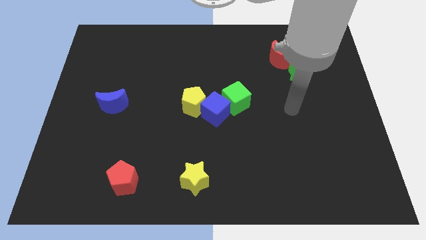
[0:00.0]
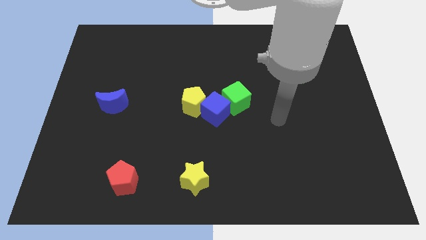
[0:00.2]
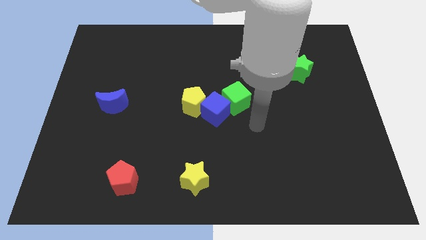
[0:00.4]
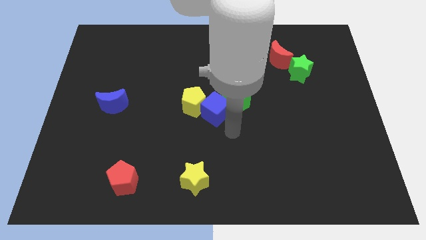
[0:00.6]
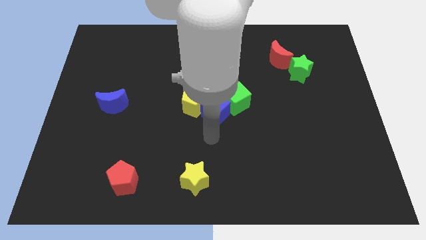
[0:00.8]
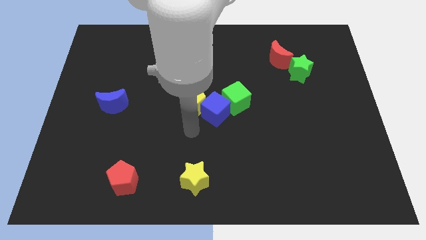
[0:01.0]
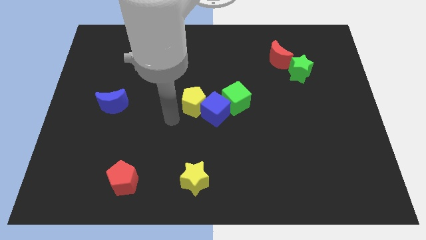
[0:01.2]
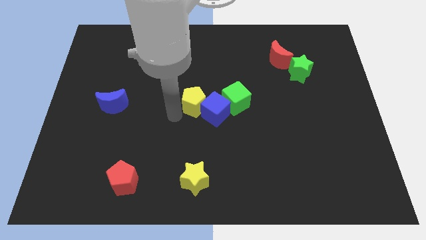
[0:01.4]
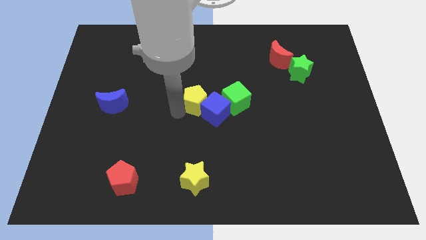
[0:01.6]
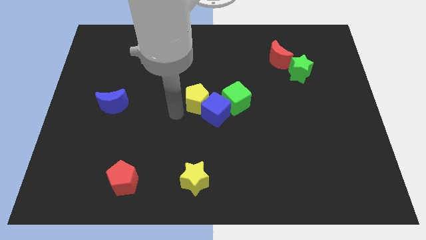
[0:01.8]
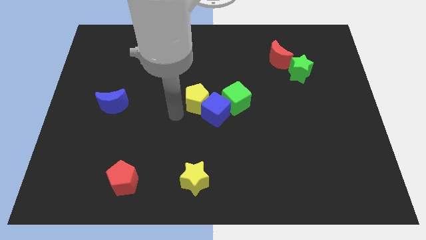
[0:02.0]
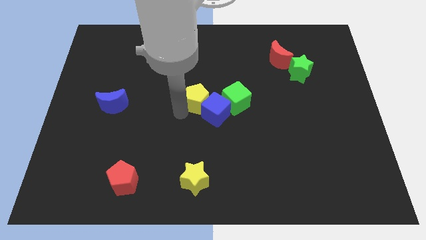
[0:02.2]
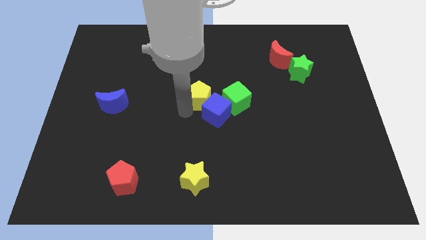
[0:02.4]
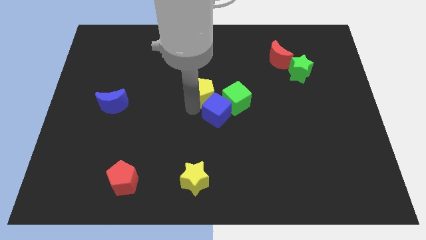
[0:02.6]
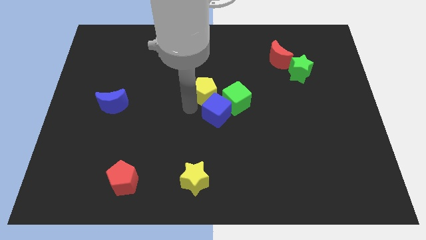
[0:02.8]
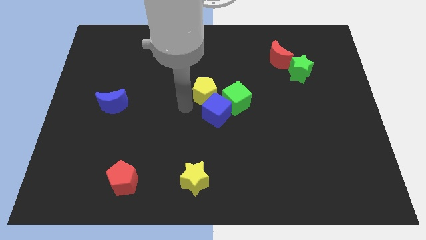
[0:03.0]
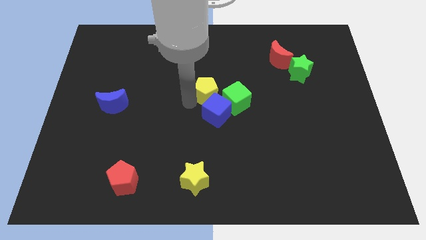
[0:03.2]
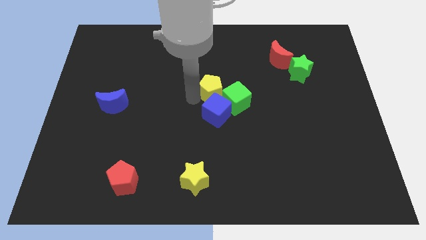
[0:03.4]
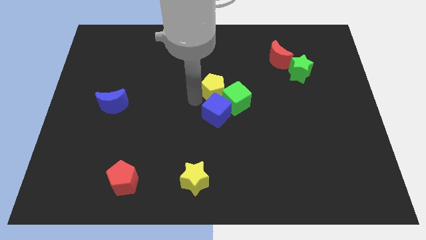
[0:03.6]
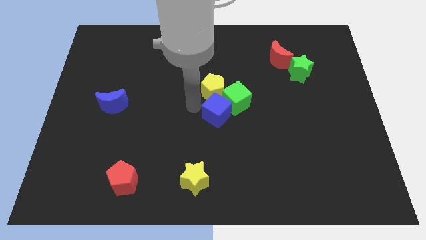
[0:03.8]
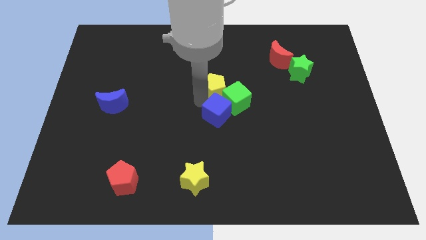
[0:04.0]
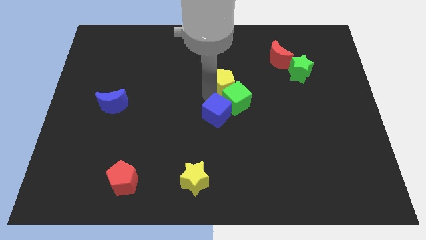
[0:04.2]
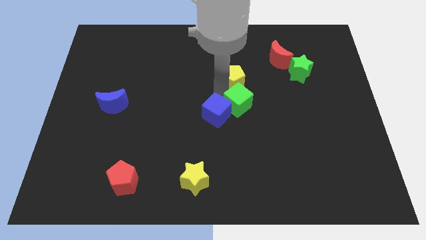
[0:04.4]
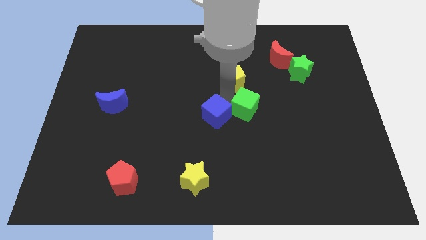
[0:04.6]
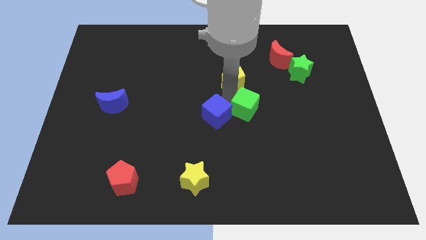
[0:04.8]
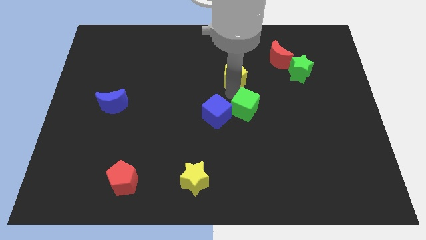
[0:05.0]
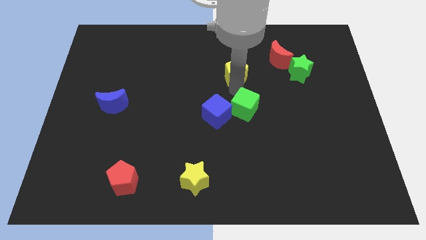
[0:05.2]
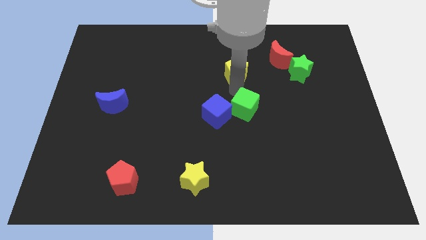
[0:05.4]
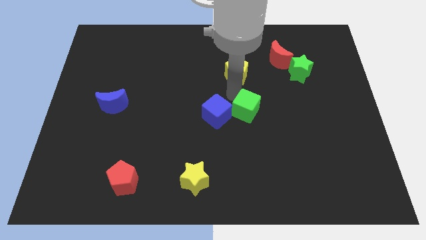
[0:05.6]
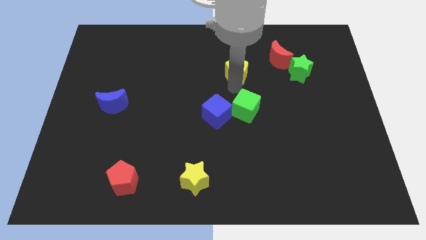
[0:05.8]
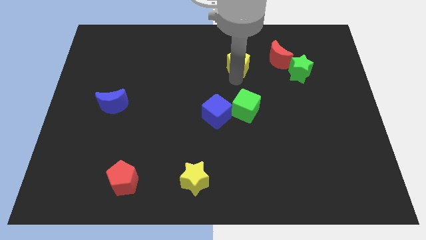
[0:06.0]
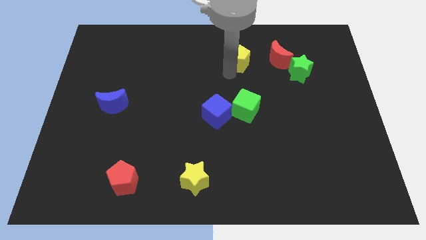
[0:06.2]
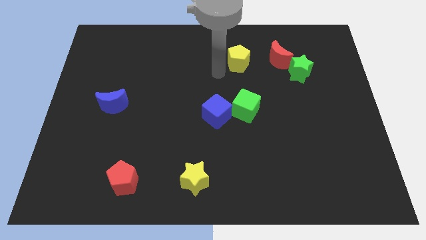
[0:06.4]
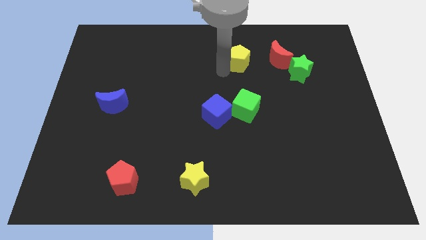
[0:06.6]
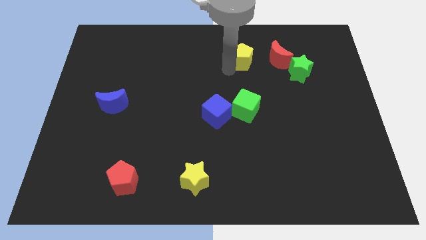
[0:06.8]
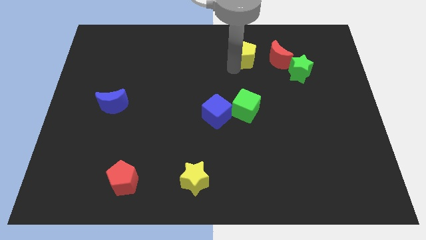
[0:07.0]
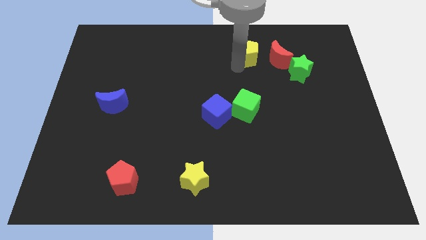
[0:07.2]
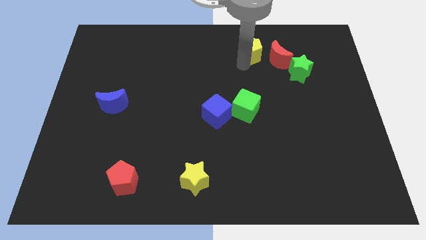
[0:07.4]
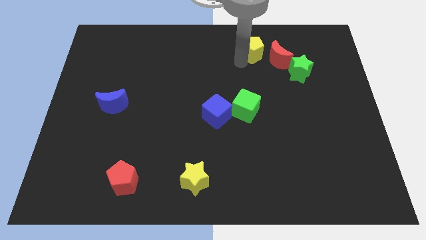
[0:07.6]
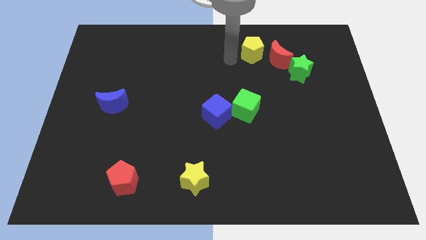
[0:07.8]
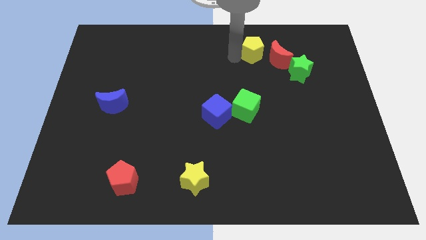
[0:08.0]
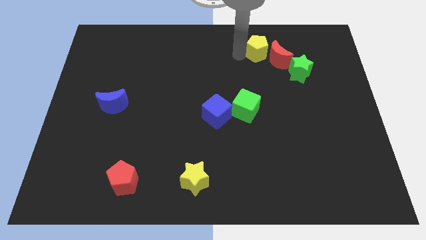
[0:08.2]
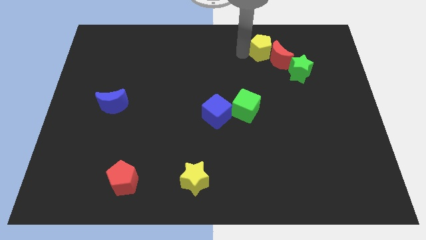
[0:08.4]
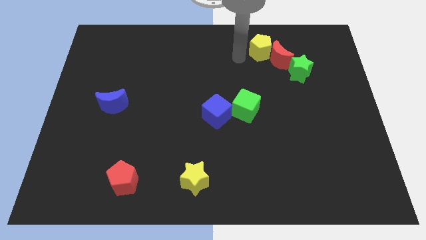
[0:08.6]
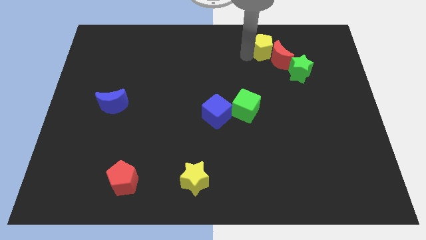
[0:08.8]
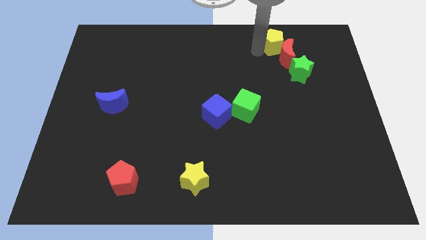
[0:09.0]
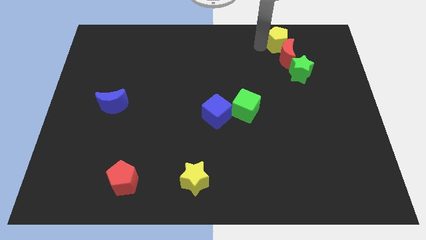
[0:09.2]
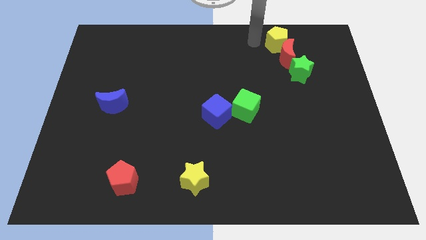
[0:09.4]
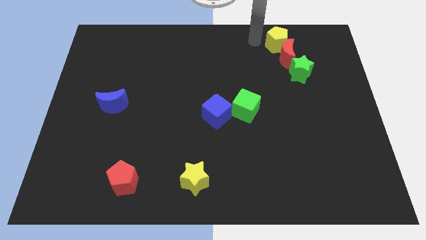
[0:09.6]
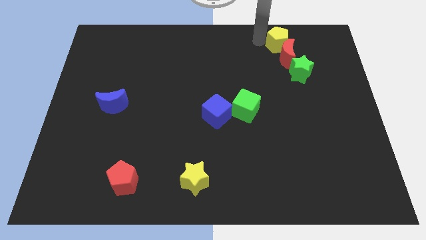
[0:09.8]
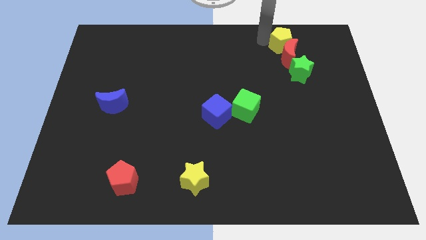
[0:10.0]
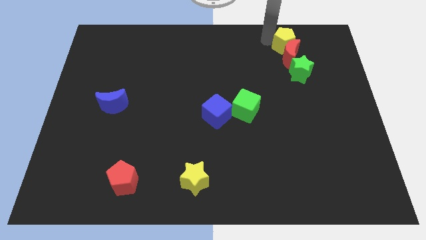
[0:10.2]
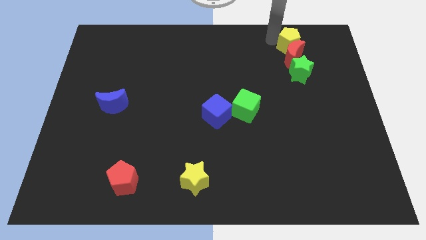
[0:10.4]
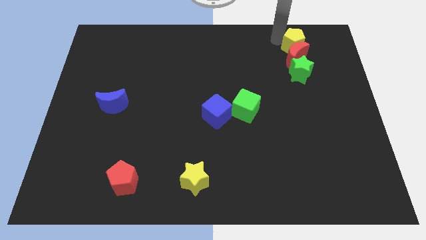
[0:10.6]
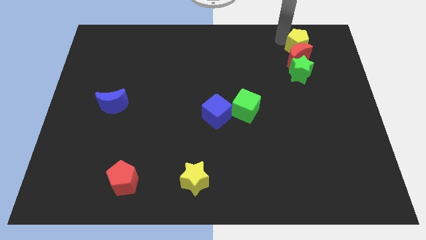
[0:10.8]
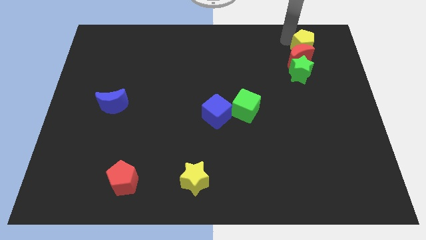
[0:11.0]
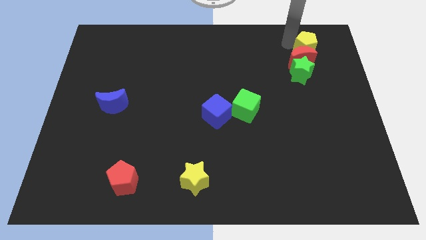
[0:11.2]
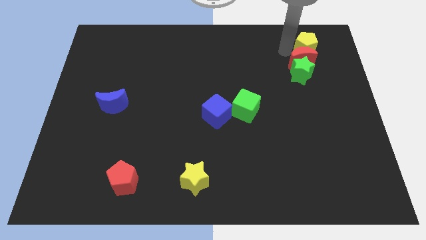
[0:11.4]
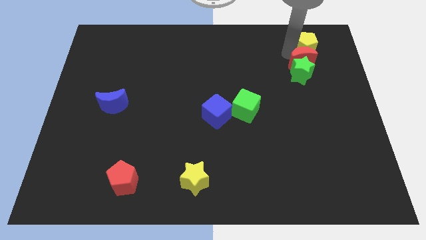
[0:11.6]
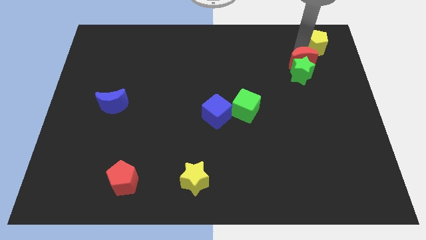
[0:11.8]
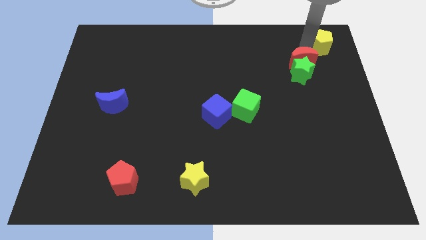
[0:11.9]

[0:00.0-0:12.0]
move the yellow pentagon to the top right
